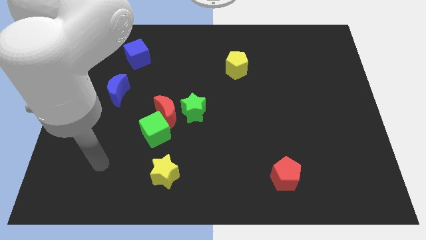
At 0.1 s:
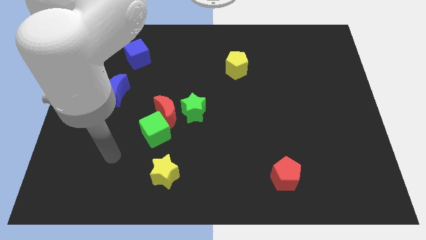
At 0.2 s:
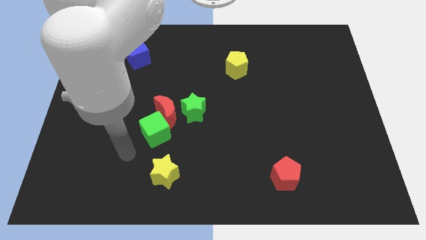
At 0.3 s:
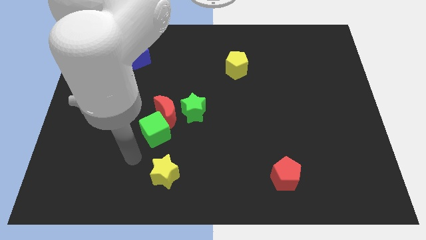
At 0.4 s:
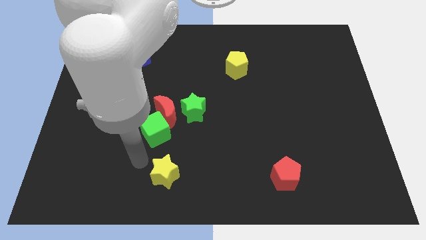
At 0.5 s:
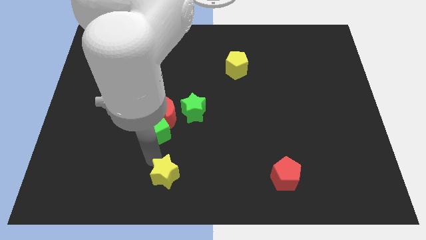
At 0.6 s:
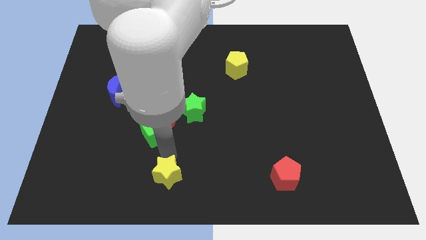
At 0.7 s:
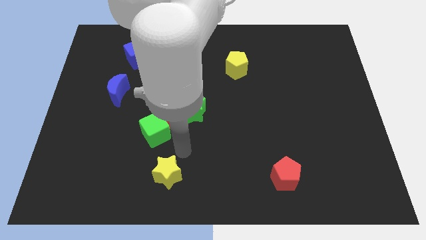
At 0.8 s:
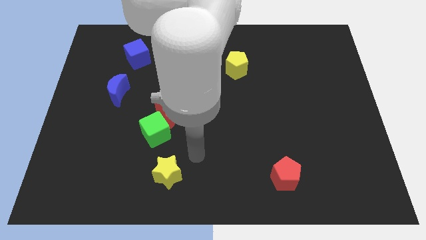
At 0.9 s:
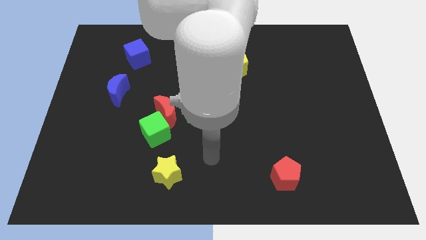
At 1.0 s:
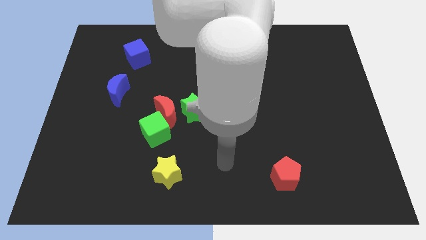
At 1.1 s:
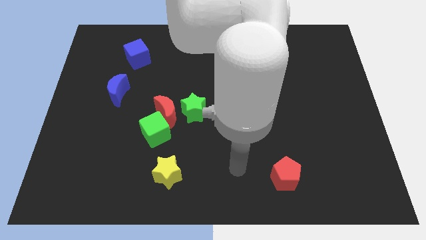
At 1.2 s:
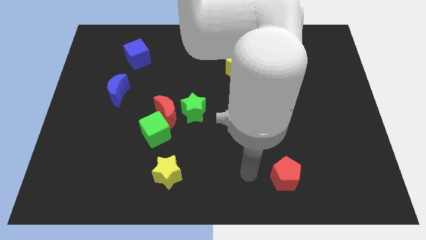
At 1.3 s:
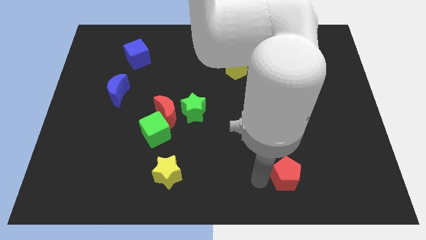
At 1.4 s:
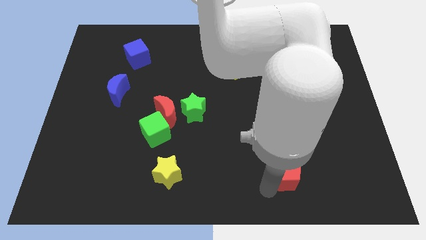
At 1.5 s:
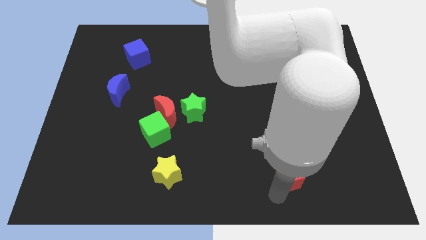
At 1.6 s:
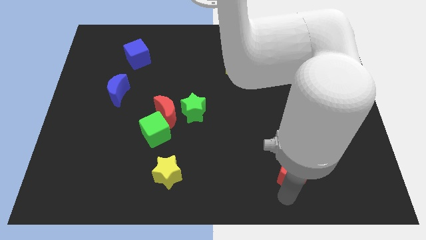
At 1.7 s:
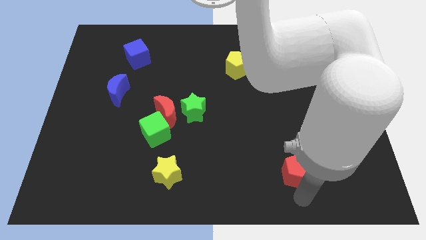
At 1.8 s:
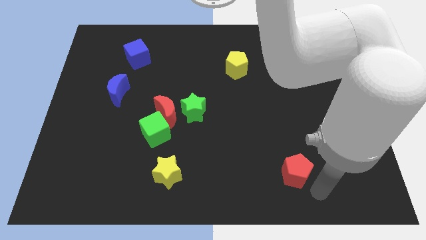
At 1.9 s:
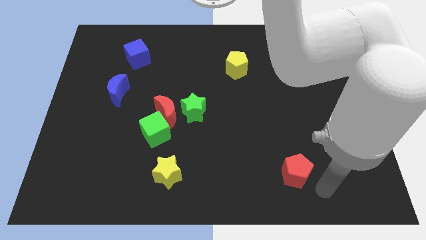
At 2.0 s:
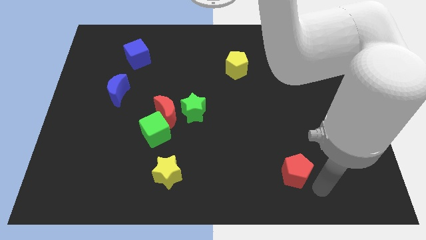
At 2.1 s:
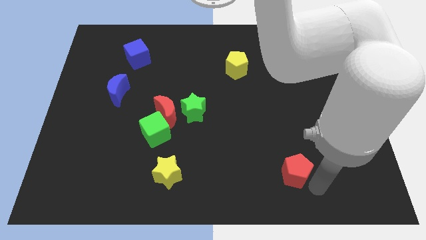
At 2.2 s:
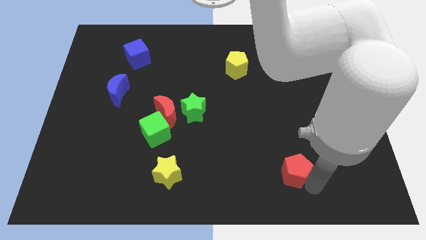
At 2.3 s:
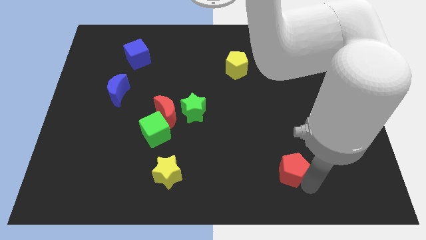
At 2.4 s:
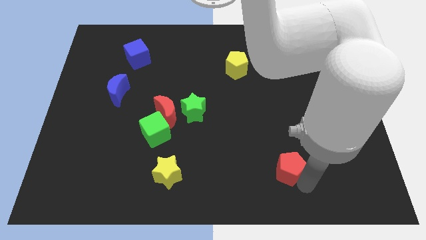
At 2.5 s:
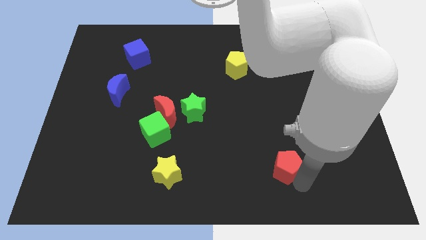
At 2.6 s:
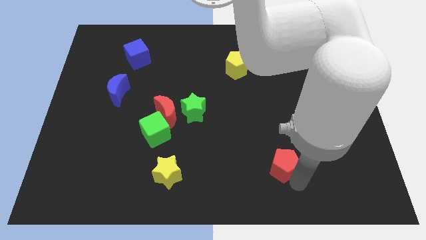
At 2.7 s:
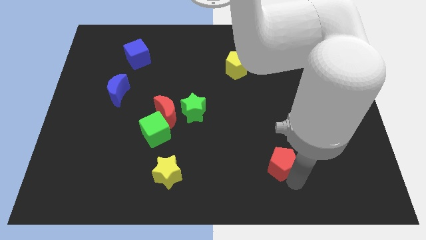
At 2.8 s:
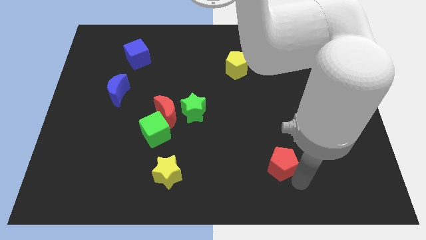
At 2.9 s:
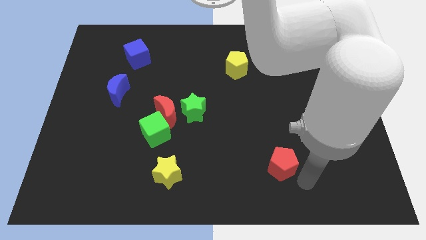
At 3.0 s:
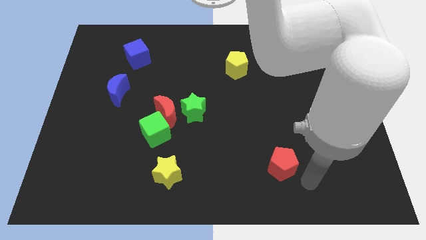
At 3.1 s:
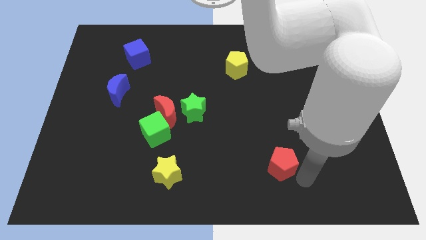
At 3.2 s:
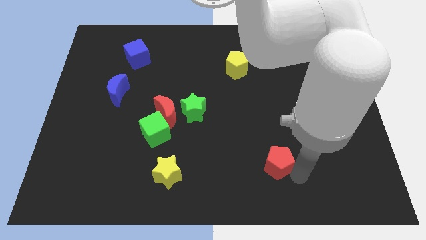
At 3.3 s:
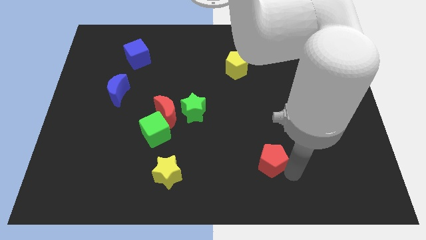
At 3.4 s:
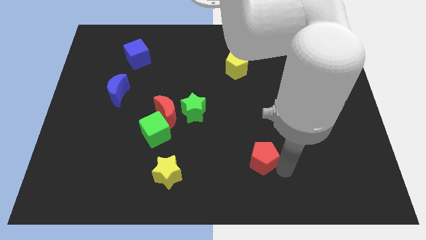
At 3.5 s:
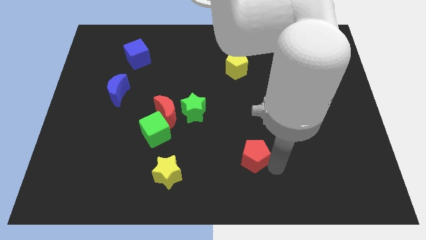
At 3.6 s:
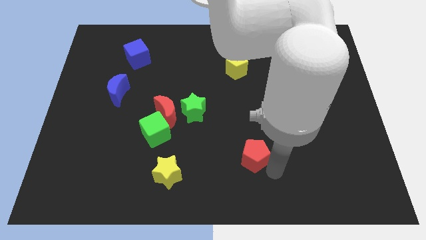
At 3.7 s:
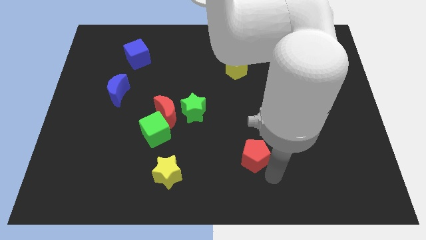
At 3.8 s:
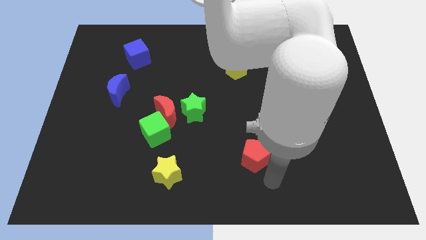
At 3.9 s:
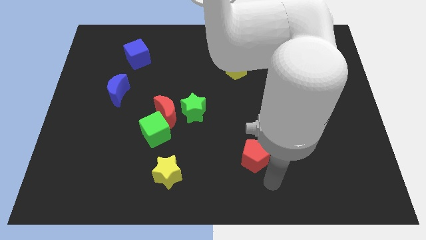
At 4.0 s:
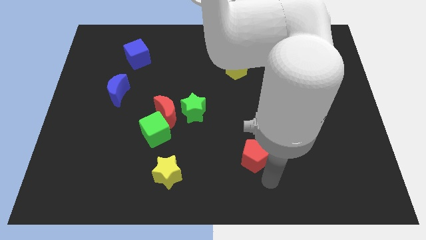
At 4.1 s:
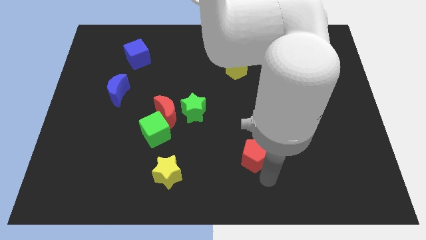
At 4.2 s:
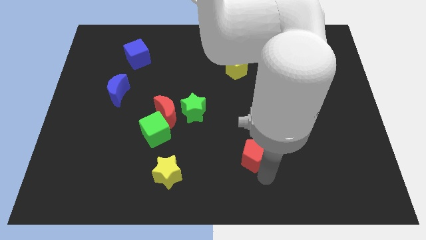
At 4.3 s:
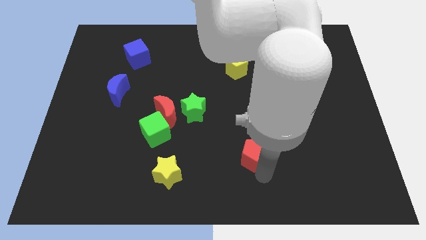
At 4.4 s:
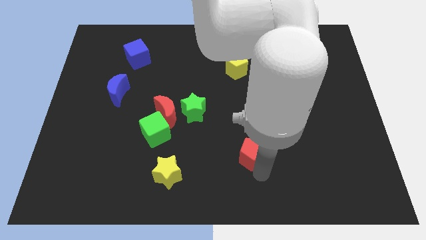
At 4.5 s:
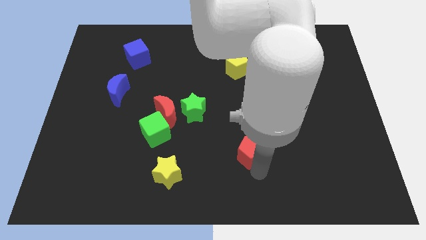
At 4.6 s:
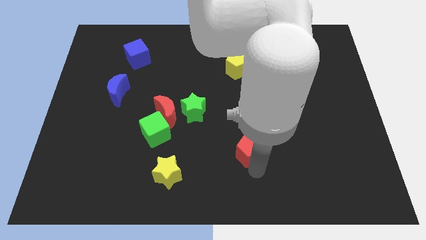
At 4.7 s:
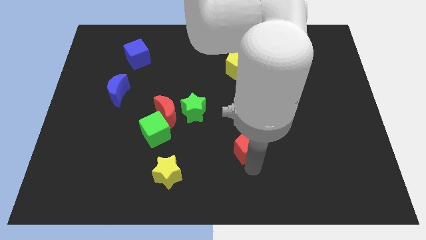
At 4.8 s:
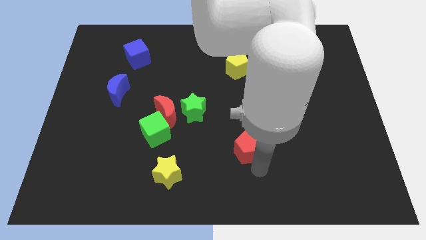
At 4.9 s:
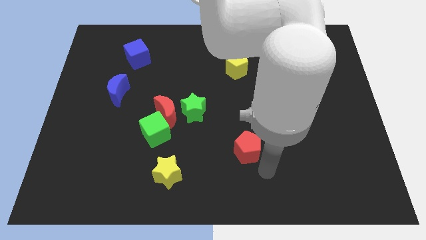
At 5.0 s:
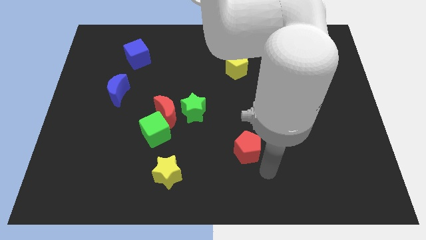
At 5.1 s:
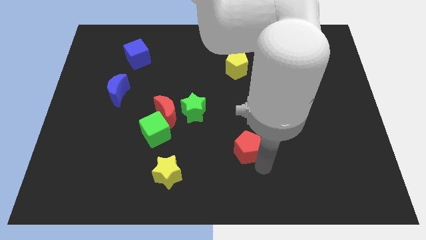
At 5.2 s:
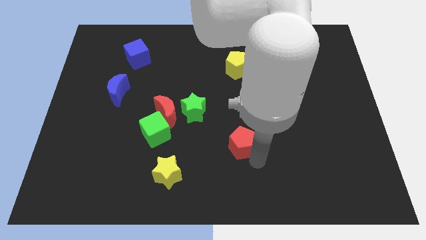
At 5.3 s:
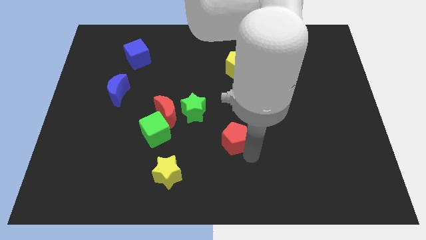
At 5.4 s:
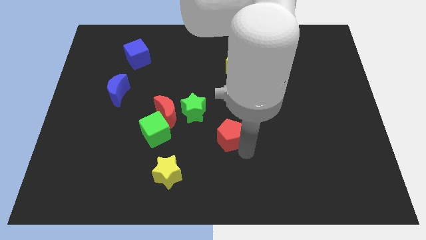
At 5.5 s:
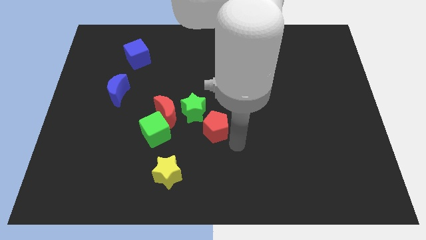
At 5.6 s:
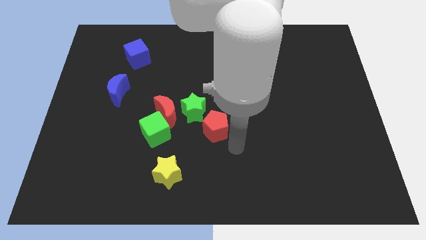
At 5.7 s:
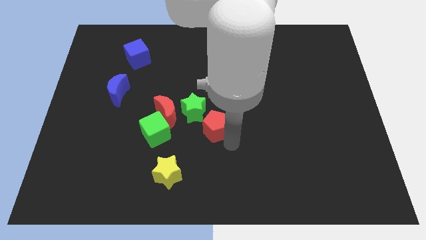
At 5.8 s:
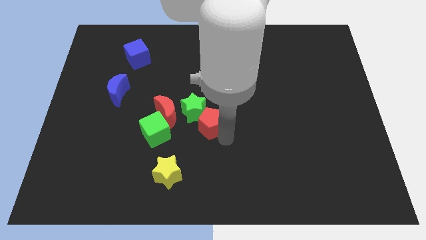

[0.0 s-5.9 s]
put the red pentagon to the green star

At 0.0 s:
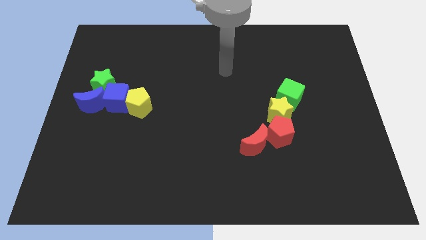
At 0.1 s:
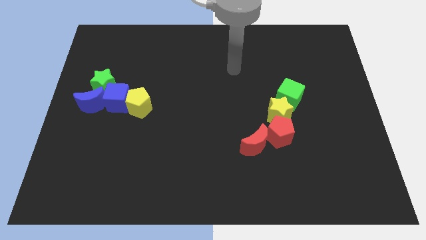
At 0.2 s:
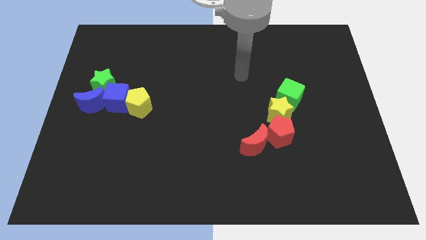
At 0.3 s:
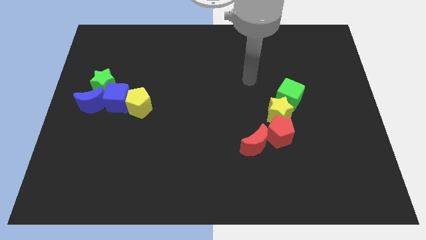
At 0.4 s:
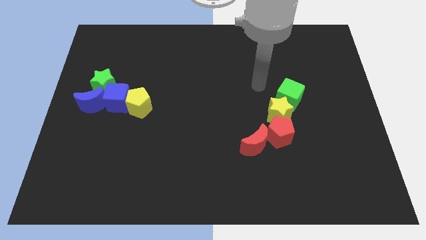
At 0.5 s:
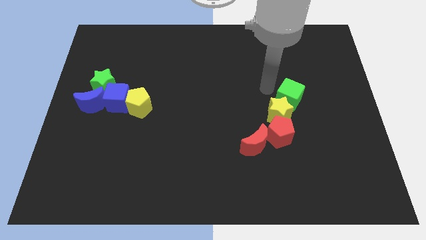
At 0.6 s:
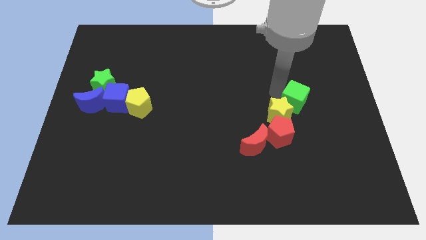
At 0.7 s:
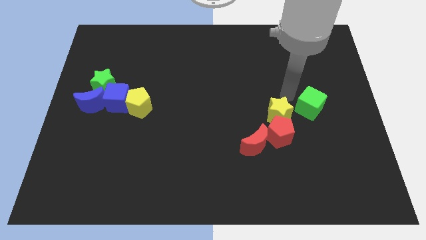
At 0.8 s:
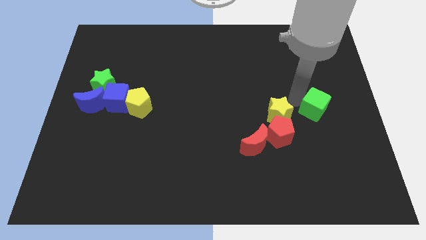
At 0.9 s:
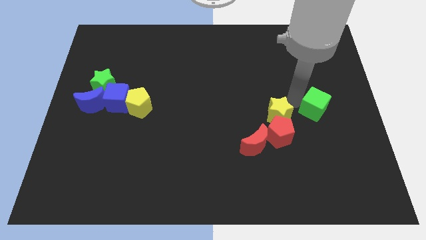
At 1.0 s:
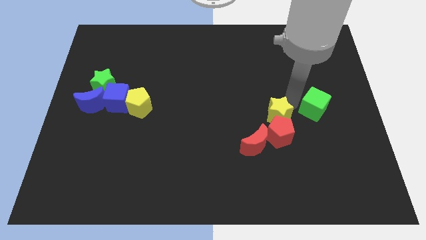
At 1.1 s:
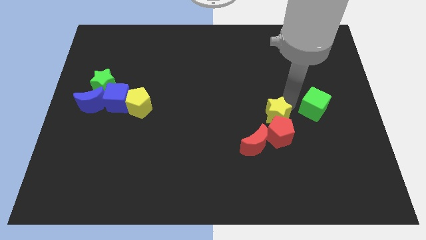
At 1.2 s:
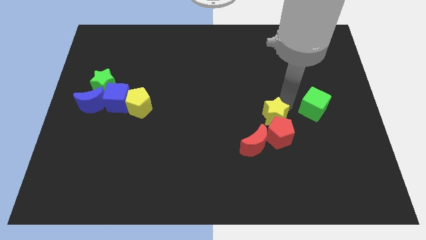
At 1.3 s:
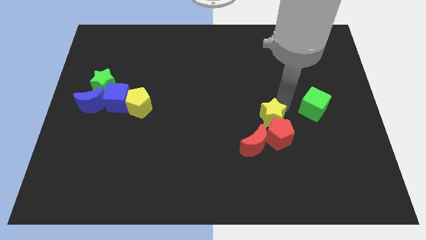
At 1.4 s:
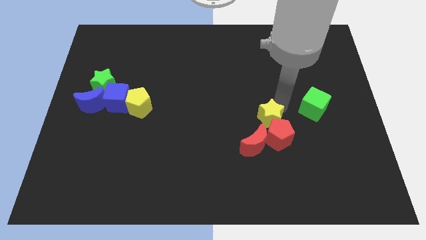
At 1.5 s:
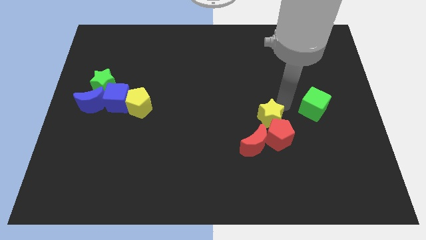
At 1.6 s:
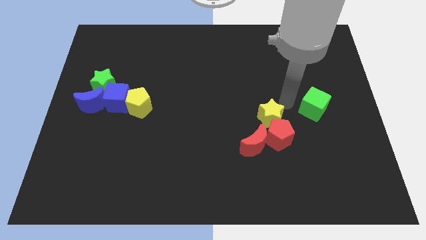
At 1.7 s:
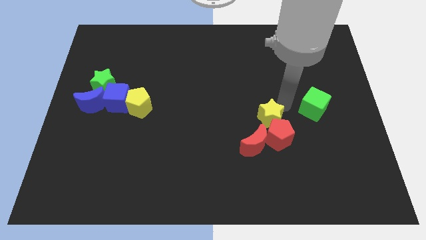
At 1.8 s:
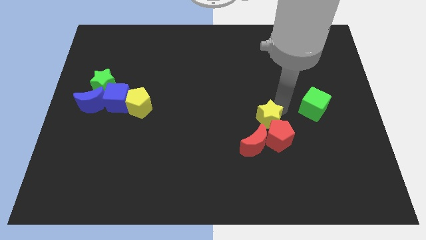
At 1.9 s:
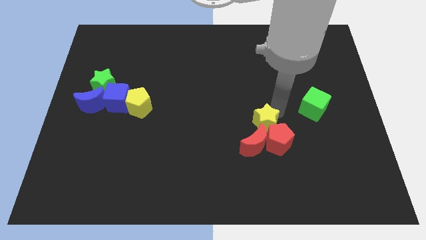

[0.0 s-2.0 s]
push the yellow star close to the red moon
